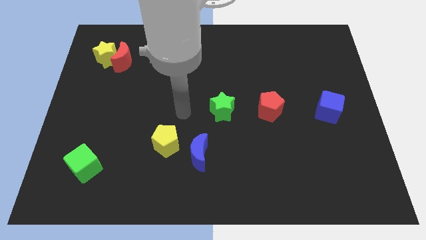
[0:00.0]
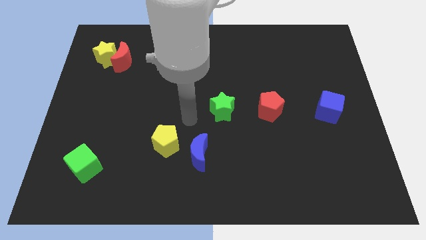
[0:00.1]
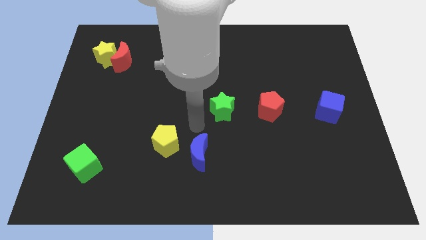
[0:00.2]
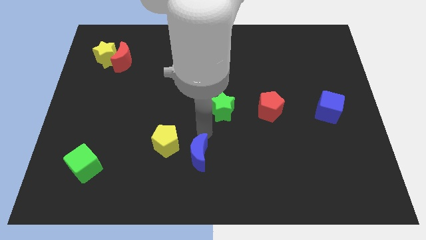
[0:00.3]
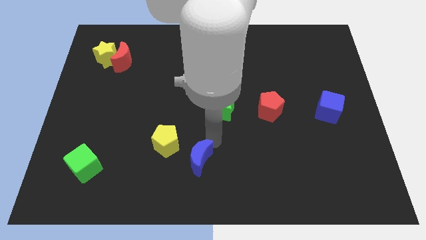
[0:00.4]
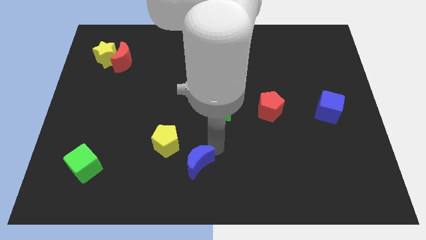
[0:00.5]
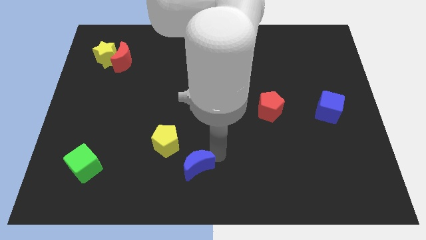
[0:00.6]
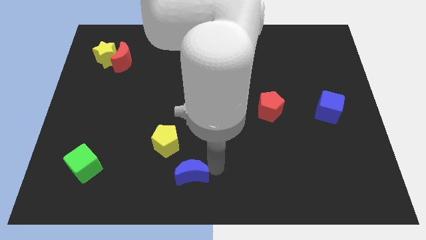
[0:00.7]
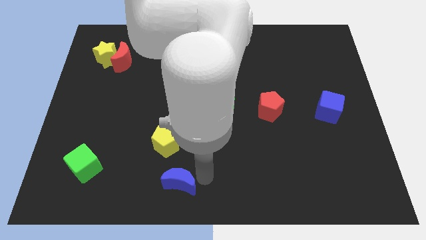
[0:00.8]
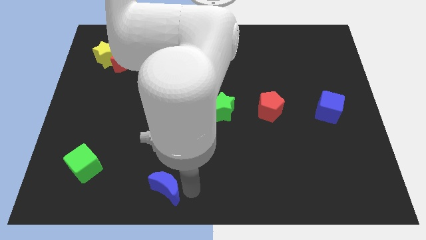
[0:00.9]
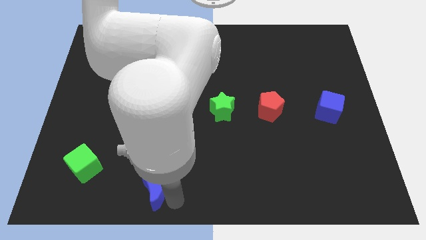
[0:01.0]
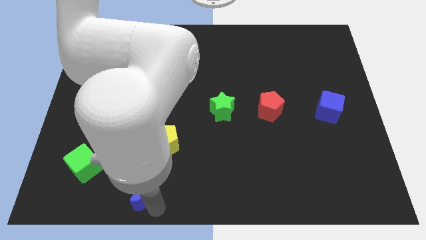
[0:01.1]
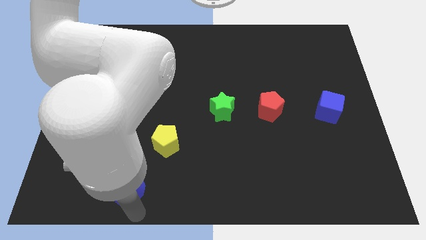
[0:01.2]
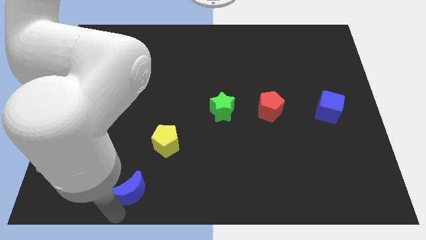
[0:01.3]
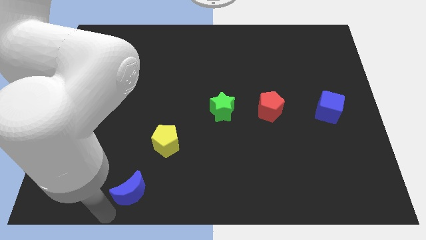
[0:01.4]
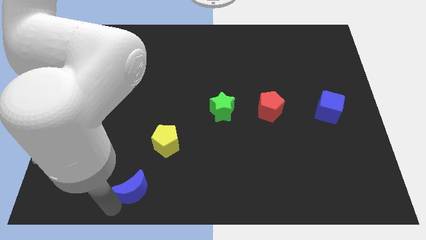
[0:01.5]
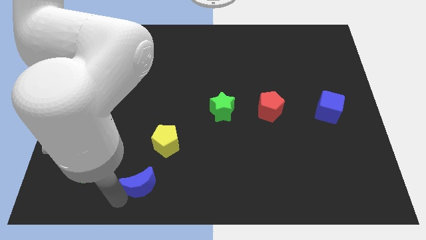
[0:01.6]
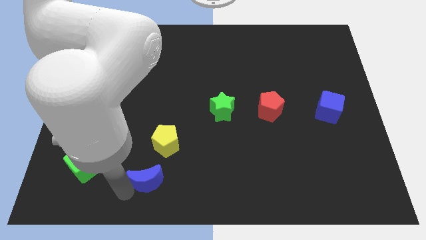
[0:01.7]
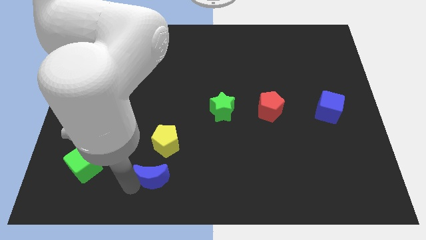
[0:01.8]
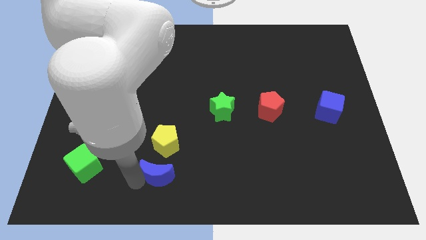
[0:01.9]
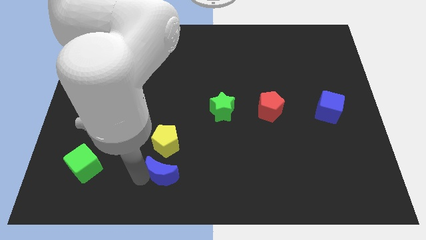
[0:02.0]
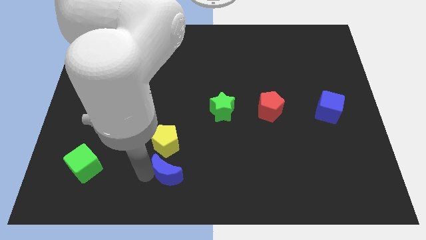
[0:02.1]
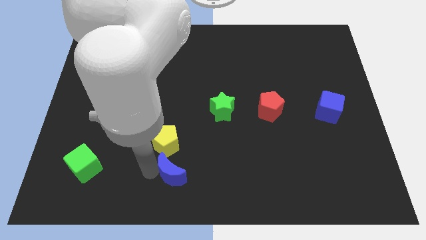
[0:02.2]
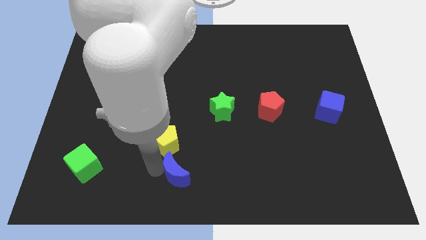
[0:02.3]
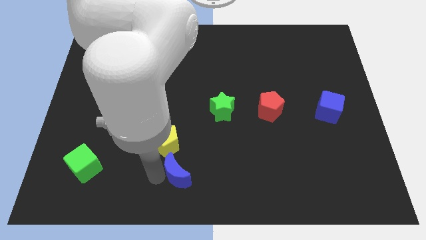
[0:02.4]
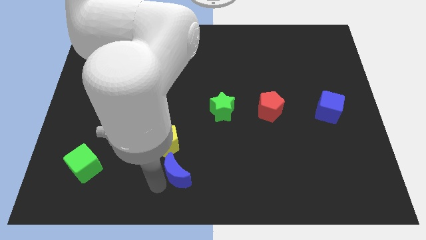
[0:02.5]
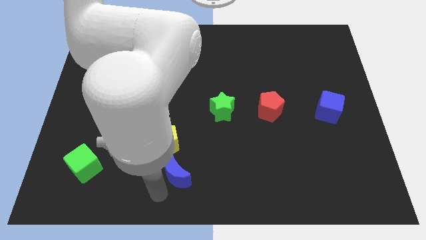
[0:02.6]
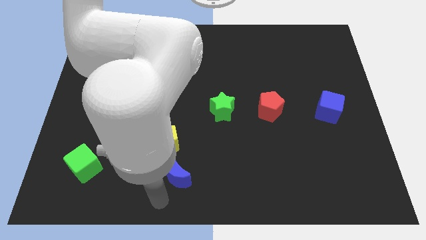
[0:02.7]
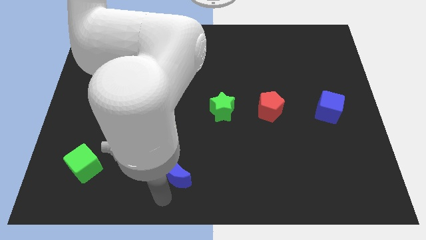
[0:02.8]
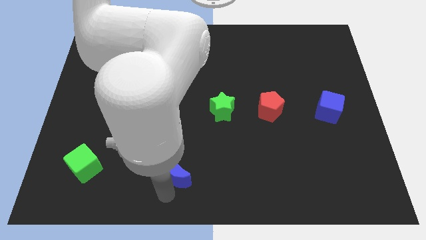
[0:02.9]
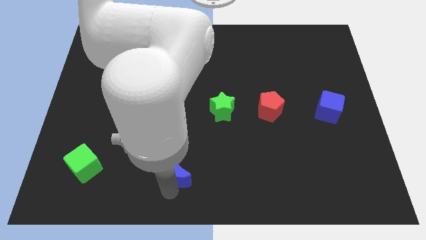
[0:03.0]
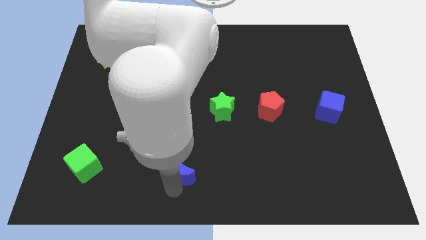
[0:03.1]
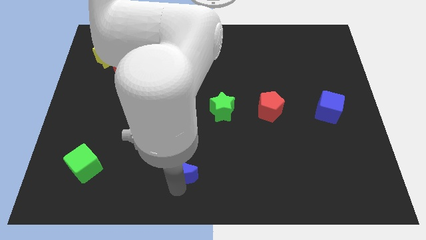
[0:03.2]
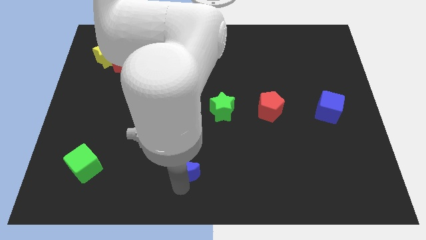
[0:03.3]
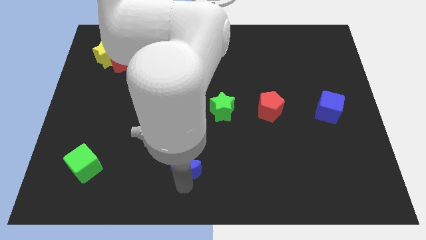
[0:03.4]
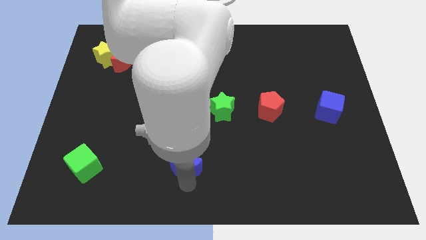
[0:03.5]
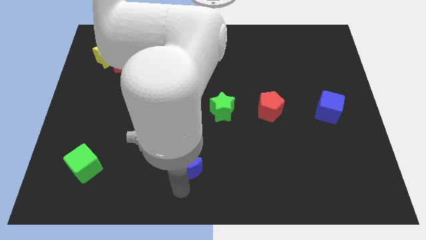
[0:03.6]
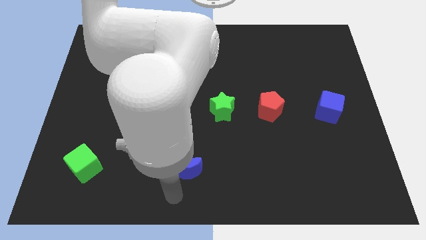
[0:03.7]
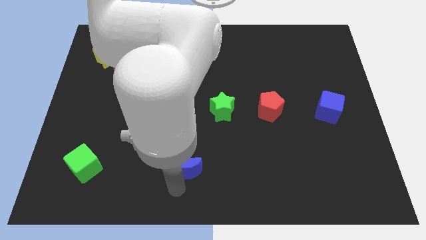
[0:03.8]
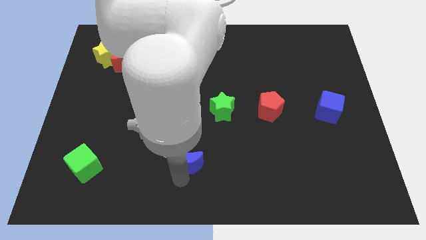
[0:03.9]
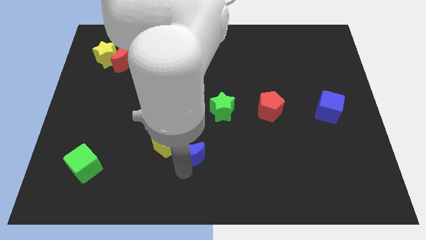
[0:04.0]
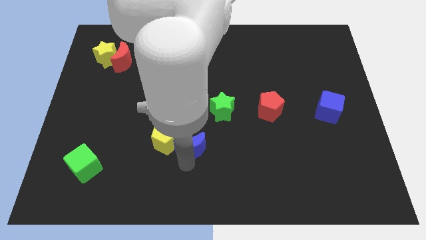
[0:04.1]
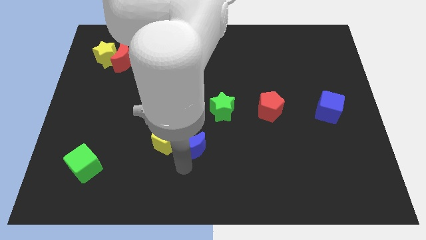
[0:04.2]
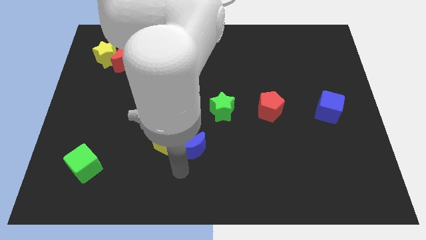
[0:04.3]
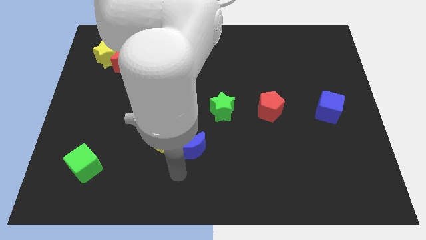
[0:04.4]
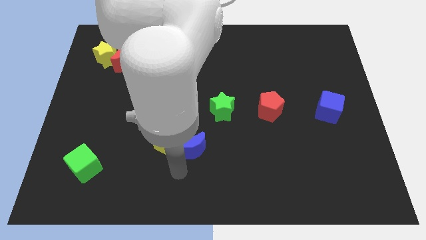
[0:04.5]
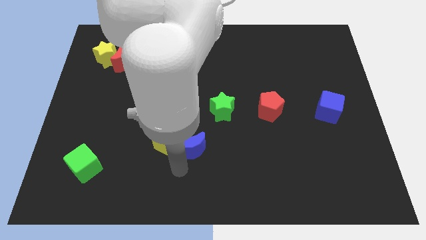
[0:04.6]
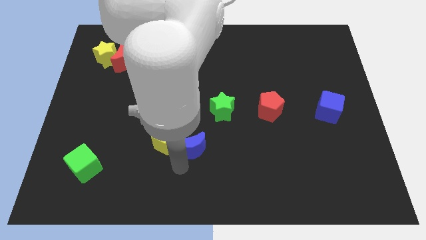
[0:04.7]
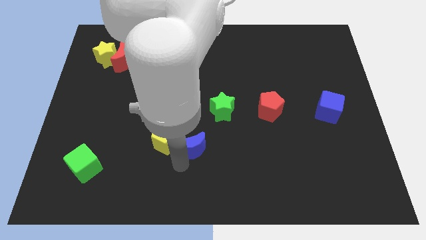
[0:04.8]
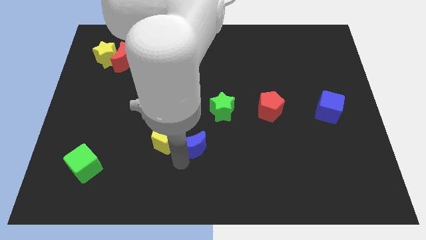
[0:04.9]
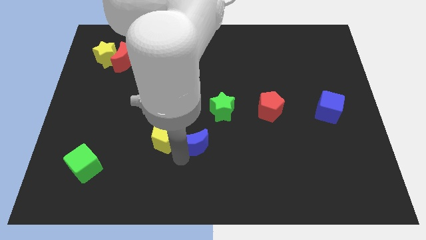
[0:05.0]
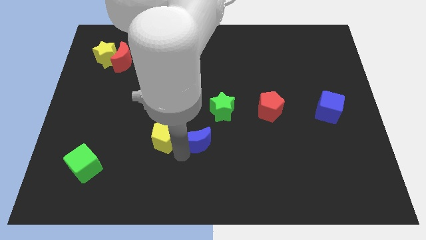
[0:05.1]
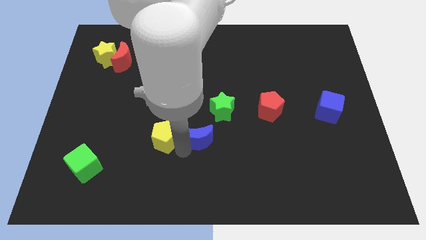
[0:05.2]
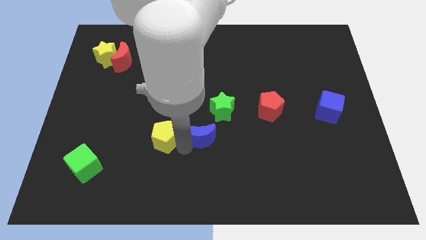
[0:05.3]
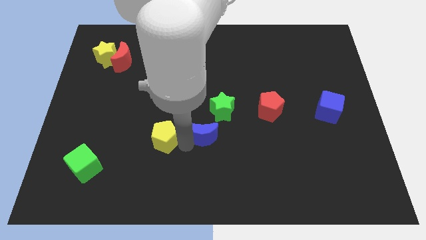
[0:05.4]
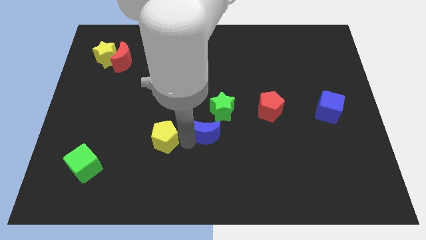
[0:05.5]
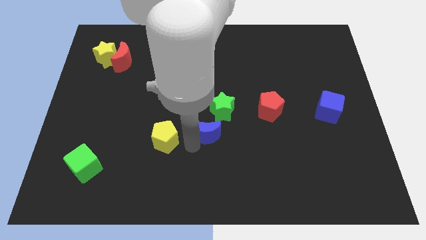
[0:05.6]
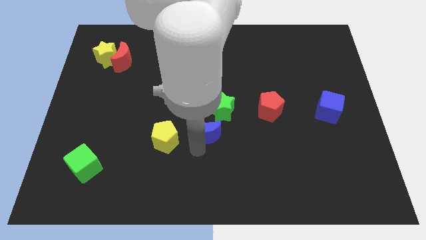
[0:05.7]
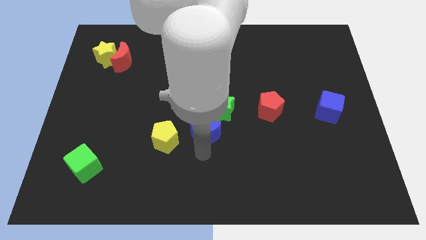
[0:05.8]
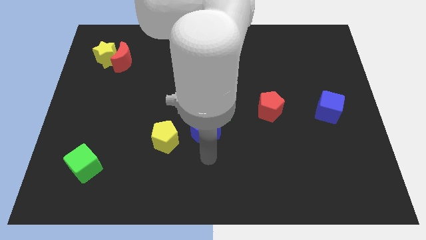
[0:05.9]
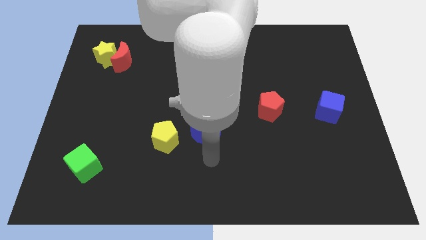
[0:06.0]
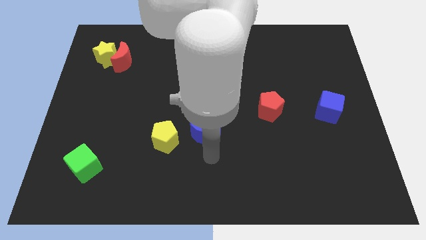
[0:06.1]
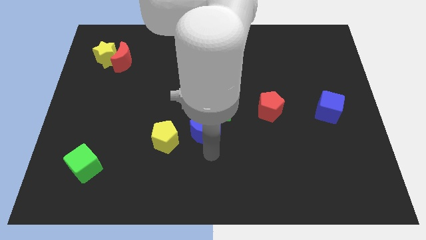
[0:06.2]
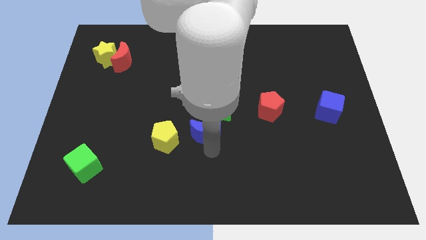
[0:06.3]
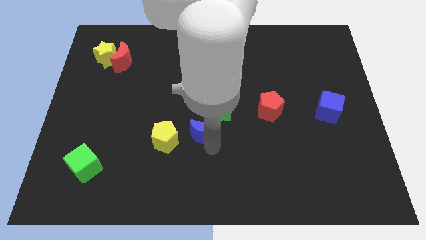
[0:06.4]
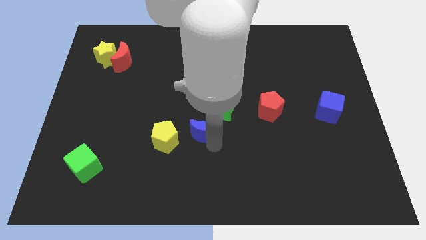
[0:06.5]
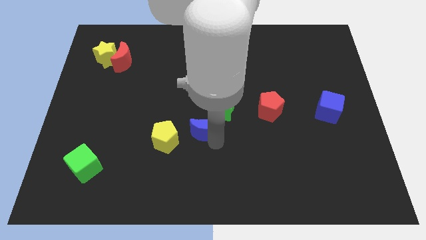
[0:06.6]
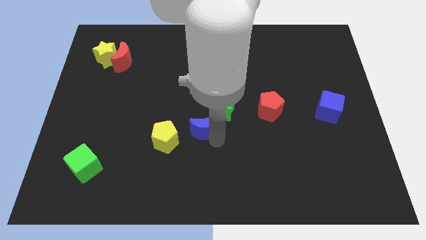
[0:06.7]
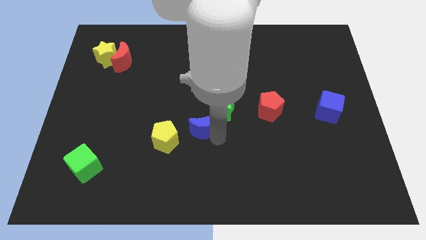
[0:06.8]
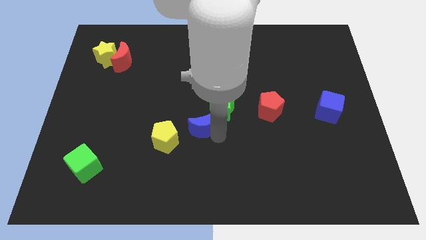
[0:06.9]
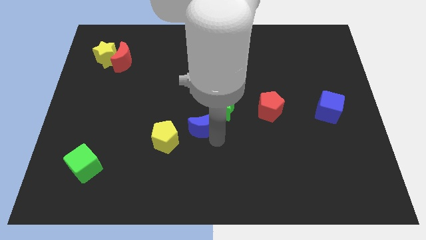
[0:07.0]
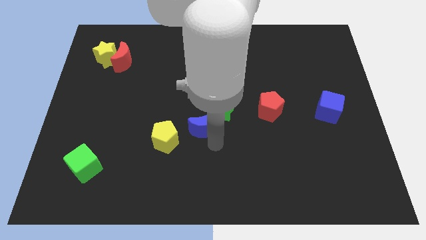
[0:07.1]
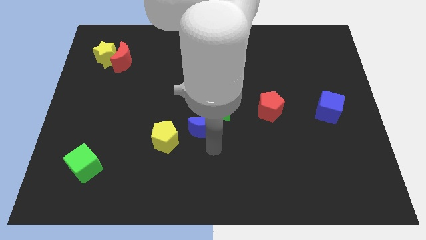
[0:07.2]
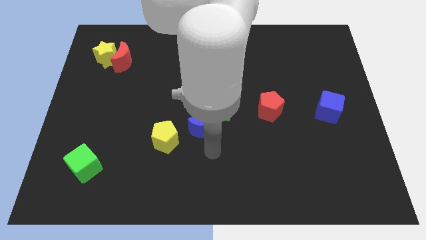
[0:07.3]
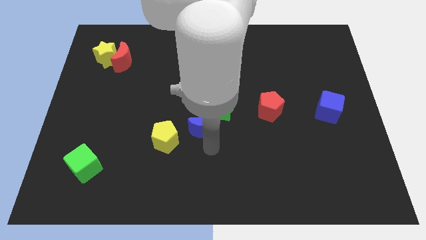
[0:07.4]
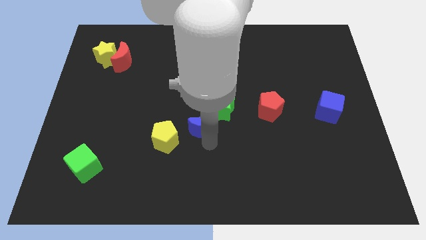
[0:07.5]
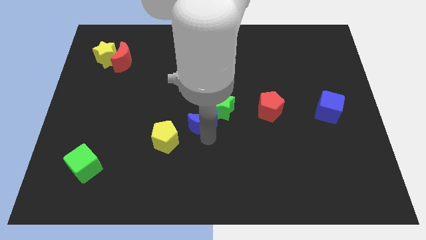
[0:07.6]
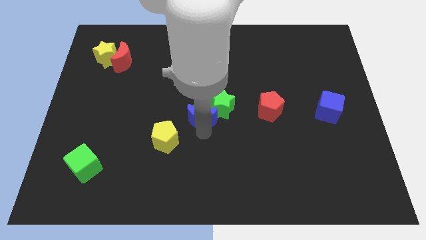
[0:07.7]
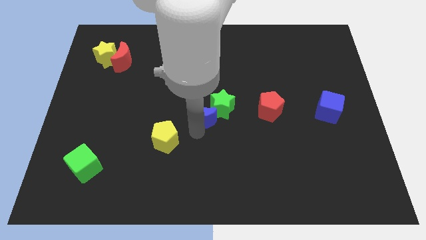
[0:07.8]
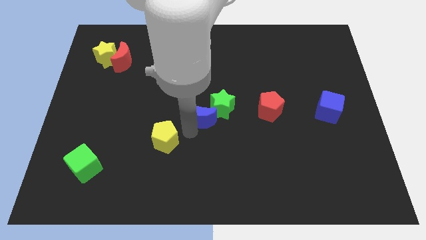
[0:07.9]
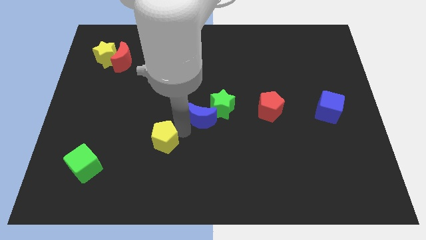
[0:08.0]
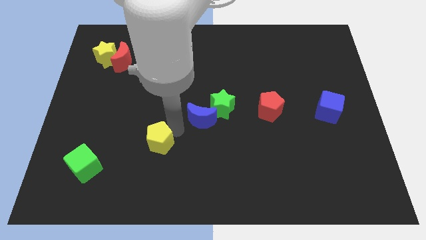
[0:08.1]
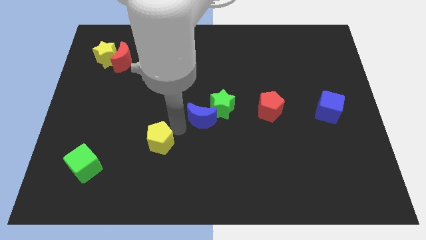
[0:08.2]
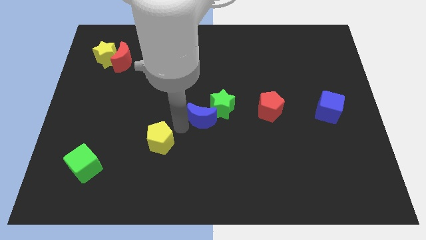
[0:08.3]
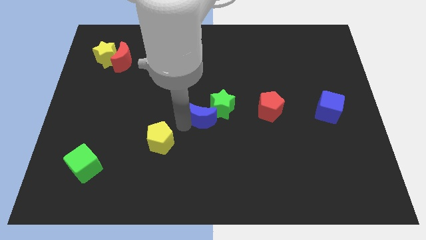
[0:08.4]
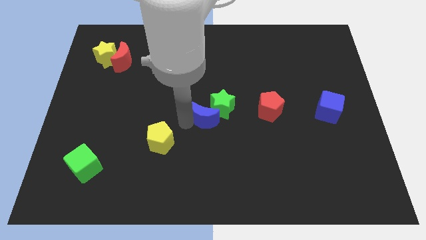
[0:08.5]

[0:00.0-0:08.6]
move the blue moon just left of the red pentagon
